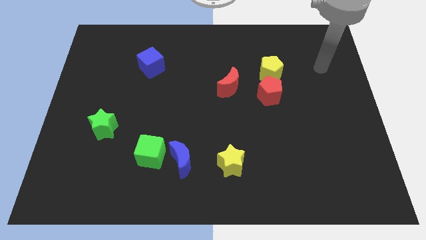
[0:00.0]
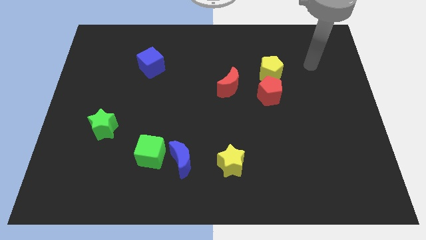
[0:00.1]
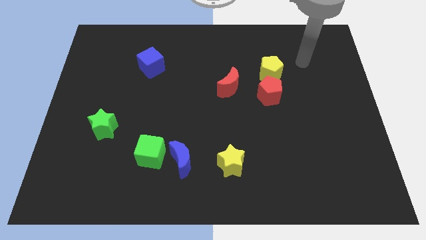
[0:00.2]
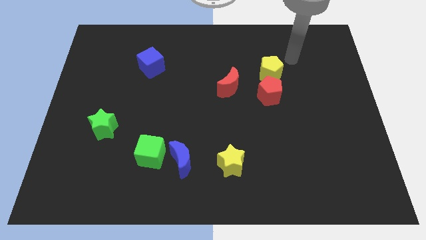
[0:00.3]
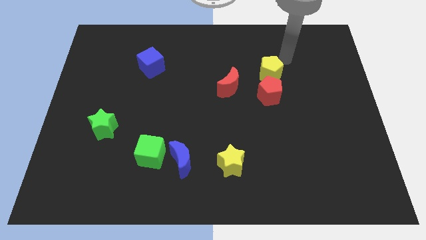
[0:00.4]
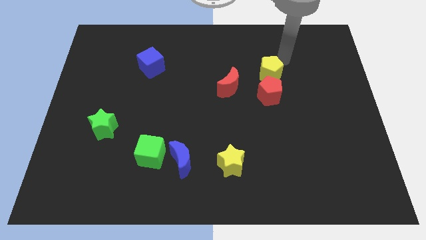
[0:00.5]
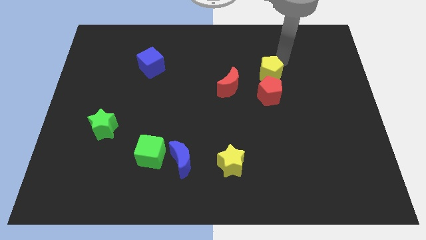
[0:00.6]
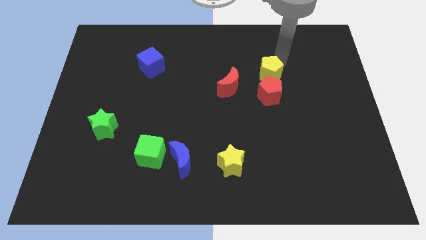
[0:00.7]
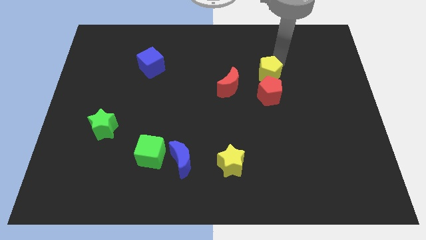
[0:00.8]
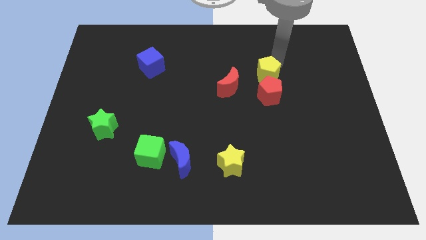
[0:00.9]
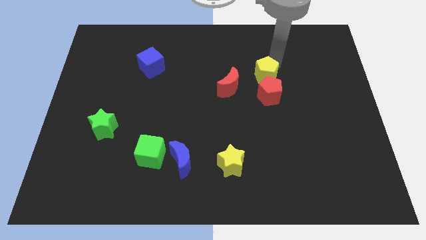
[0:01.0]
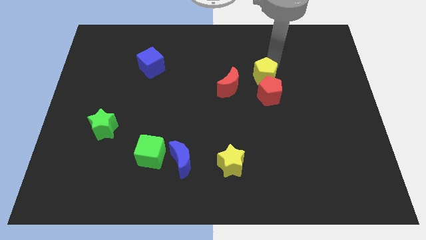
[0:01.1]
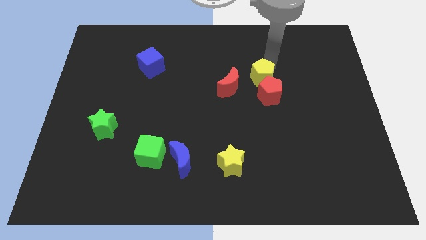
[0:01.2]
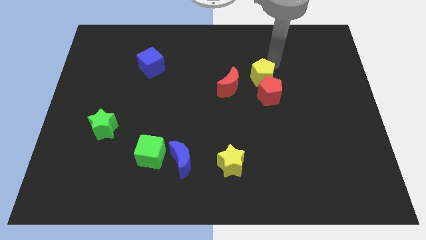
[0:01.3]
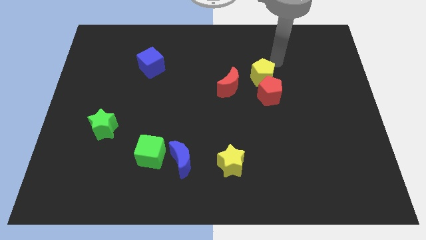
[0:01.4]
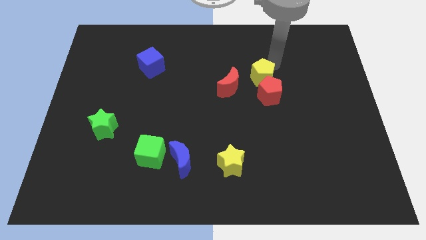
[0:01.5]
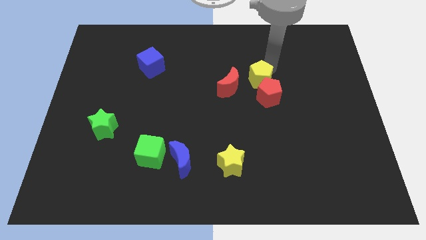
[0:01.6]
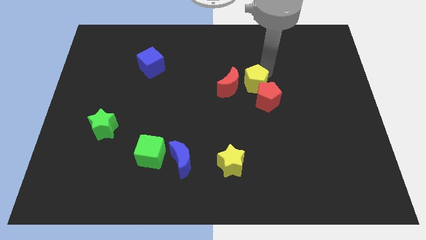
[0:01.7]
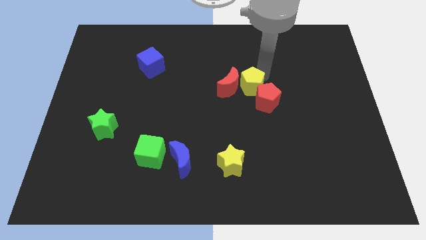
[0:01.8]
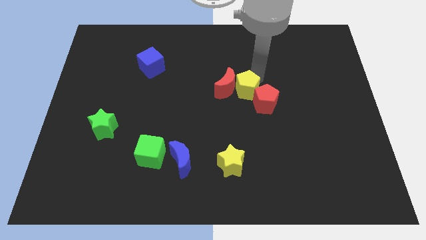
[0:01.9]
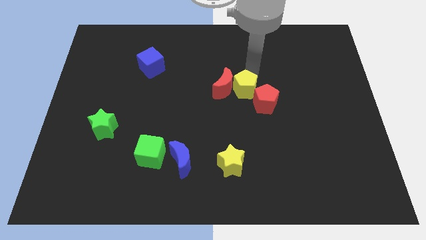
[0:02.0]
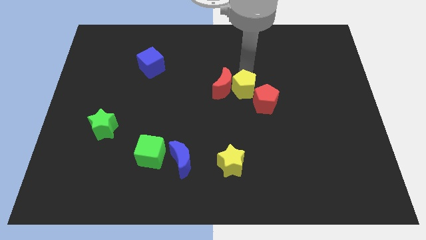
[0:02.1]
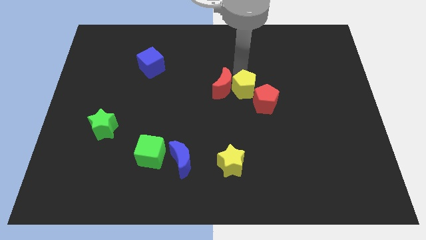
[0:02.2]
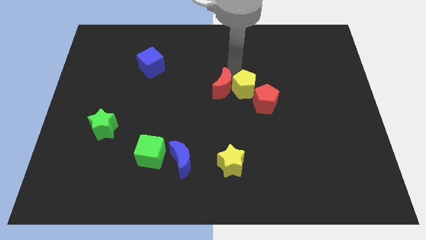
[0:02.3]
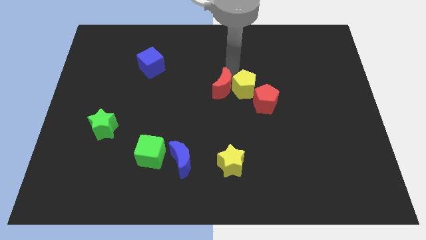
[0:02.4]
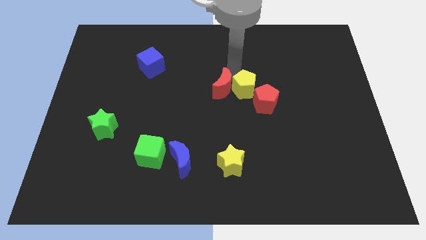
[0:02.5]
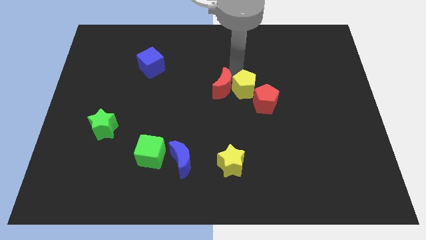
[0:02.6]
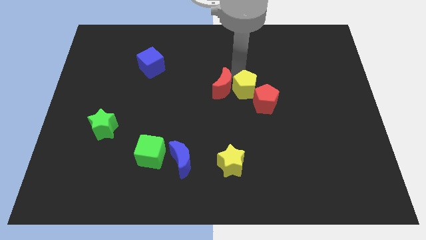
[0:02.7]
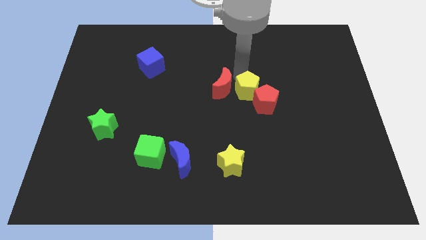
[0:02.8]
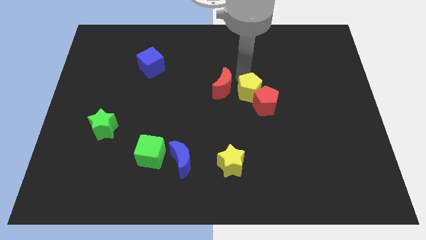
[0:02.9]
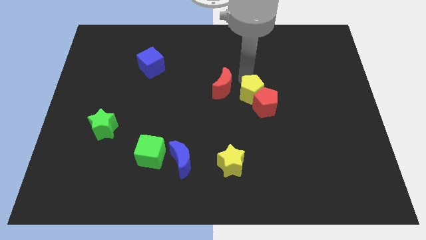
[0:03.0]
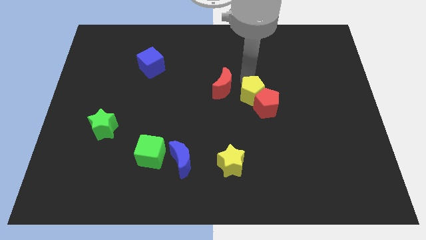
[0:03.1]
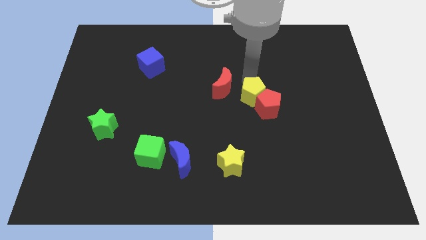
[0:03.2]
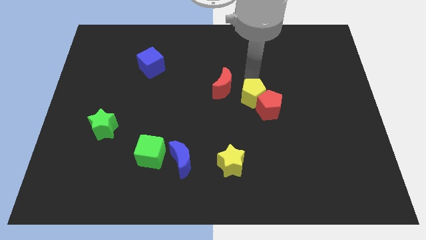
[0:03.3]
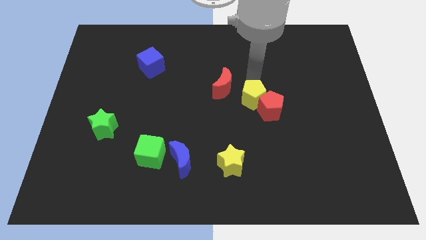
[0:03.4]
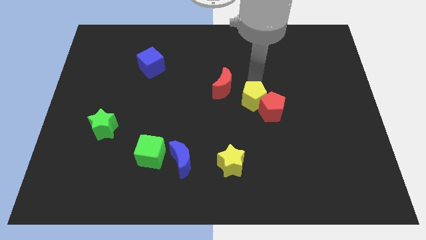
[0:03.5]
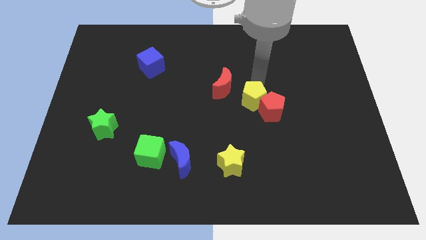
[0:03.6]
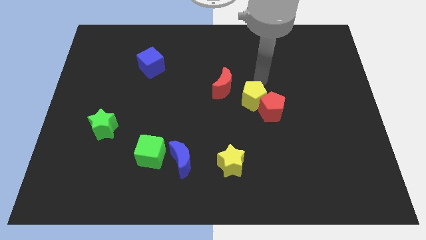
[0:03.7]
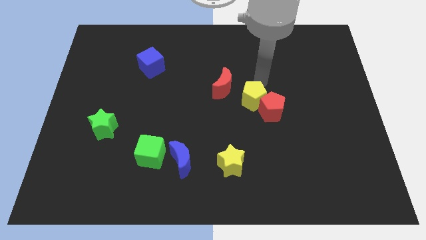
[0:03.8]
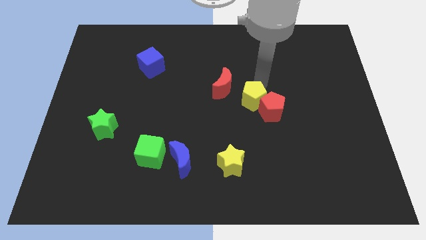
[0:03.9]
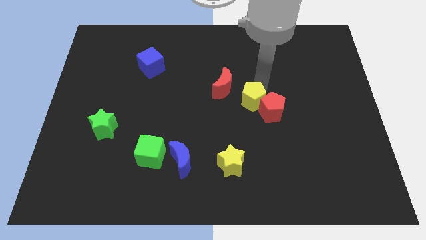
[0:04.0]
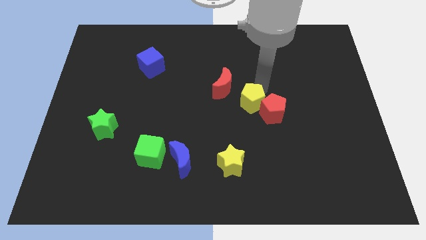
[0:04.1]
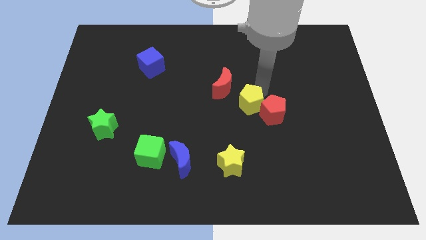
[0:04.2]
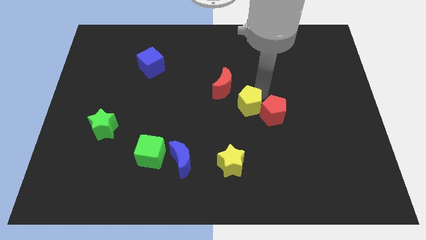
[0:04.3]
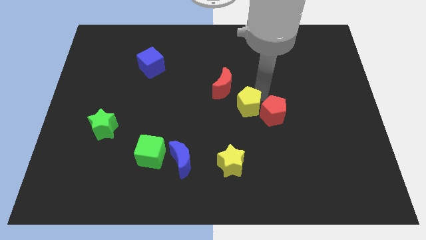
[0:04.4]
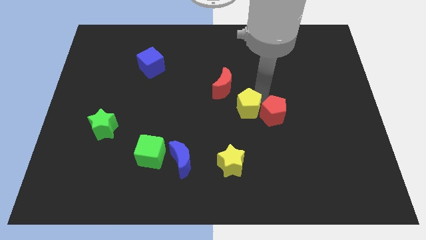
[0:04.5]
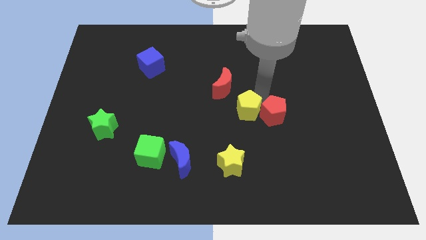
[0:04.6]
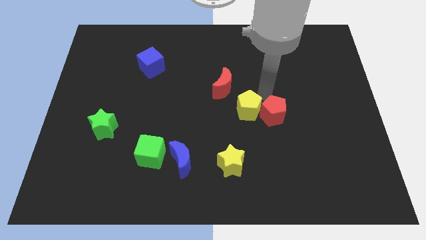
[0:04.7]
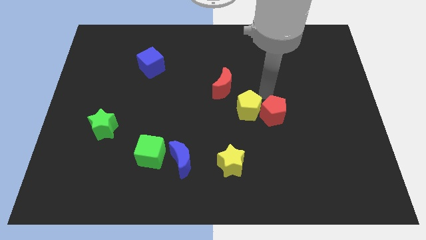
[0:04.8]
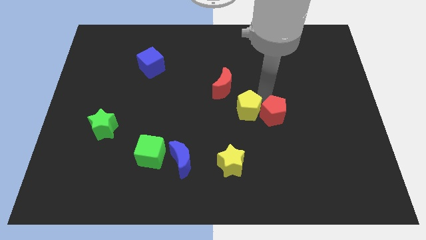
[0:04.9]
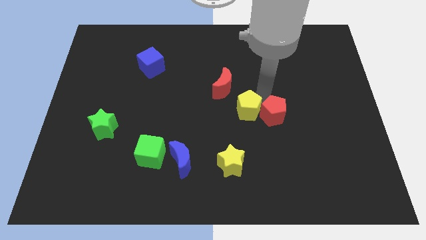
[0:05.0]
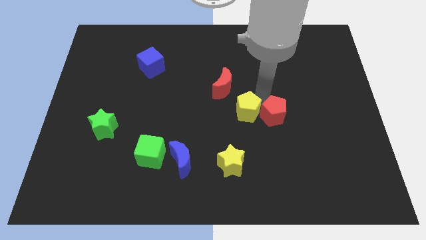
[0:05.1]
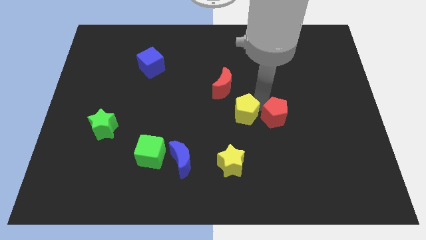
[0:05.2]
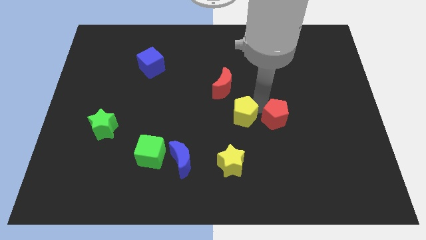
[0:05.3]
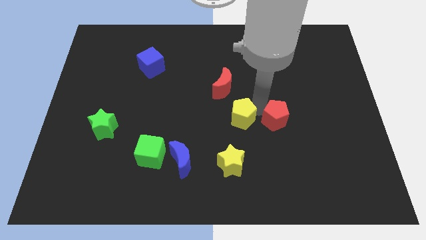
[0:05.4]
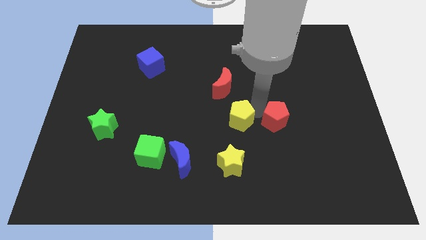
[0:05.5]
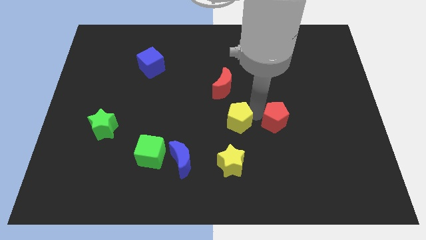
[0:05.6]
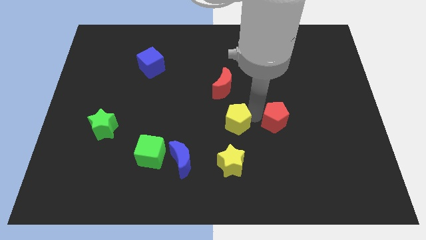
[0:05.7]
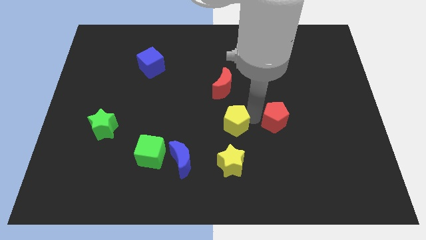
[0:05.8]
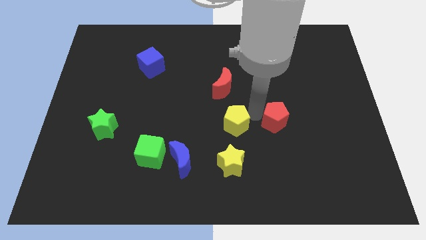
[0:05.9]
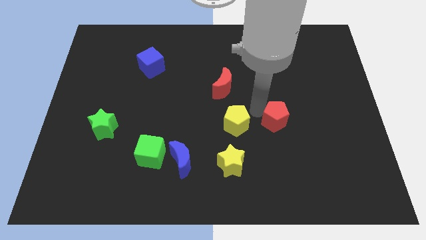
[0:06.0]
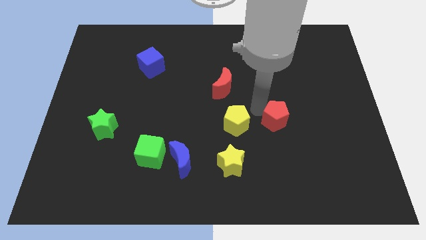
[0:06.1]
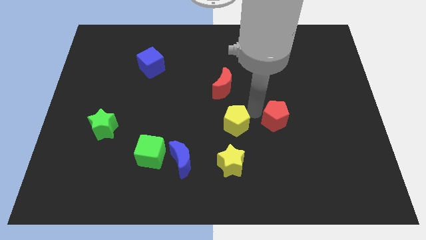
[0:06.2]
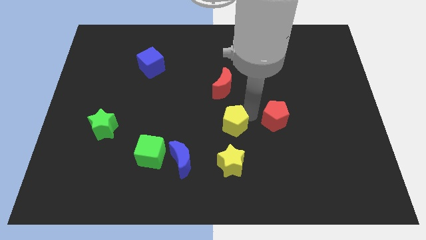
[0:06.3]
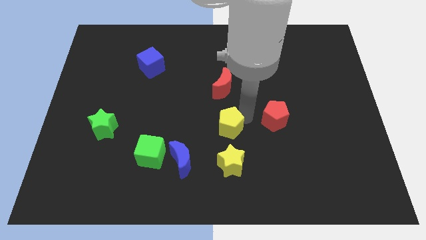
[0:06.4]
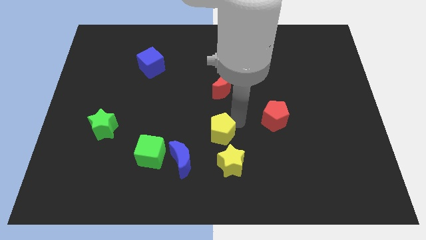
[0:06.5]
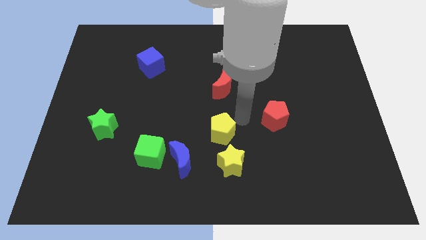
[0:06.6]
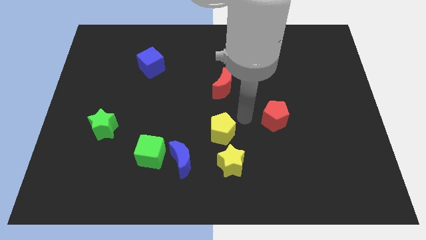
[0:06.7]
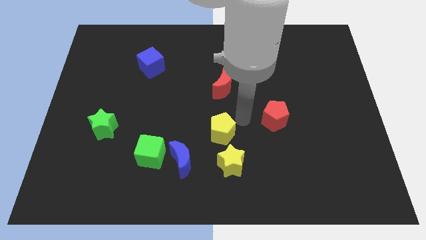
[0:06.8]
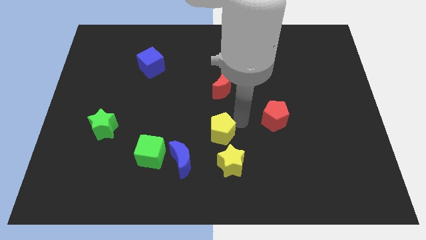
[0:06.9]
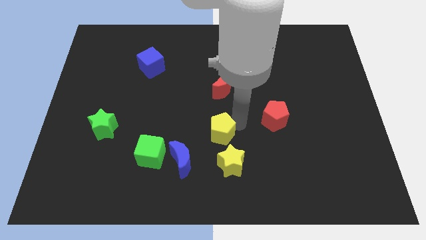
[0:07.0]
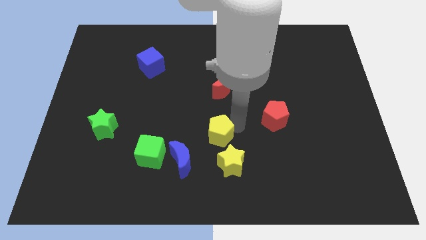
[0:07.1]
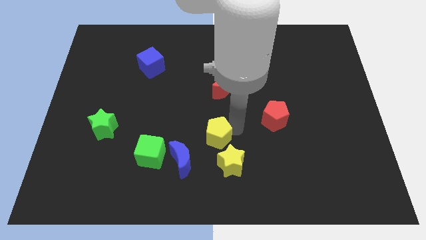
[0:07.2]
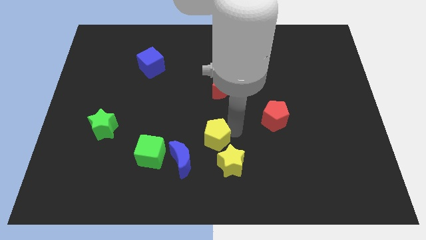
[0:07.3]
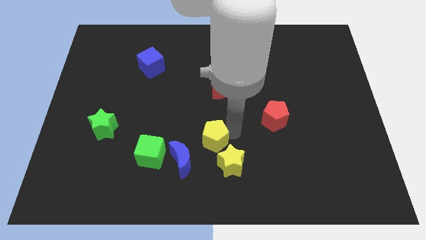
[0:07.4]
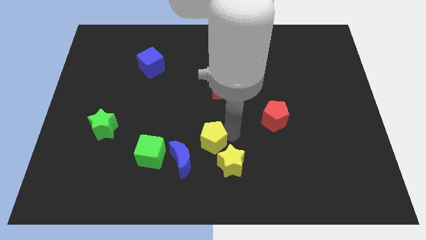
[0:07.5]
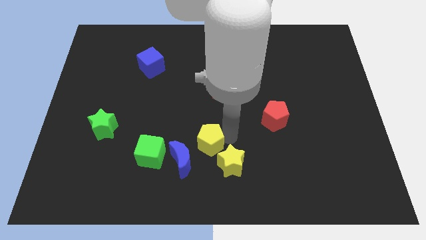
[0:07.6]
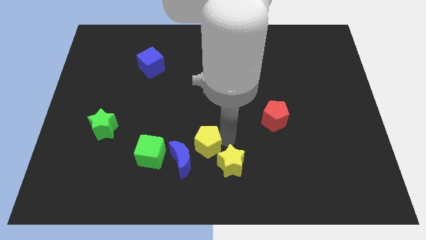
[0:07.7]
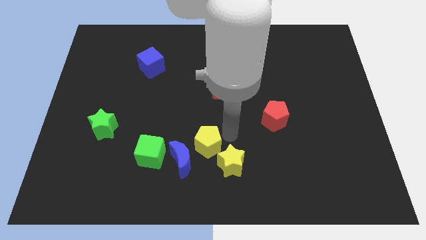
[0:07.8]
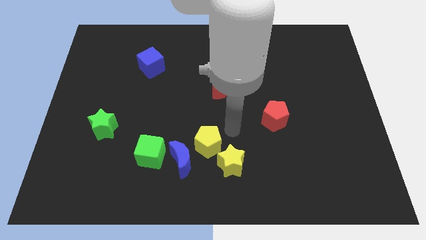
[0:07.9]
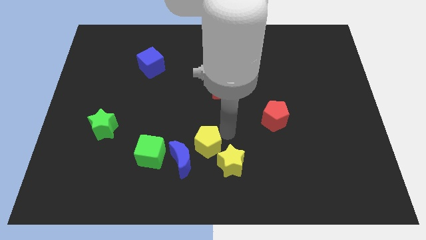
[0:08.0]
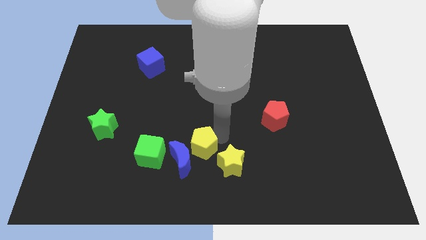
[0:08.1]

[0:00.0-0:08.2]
move the yellow pentagon to the blue moon
